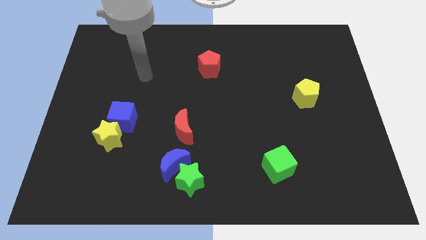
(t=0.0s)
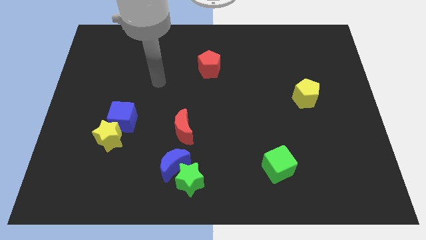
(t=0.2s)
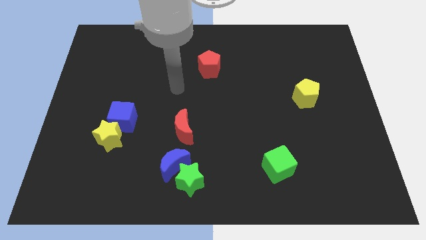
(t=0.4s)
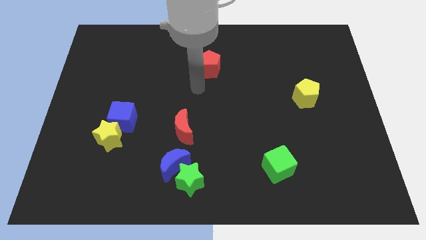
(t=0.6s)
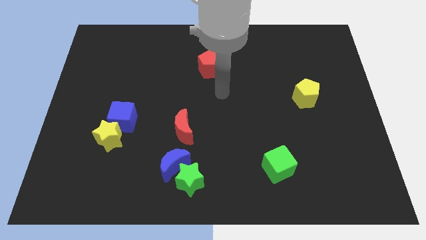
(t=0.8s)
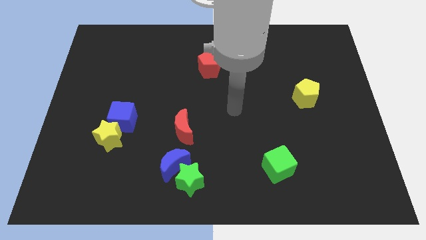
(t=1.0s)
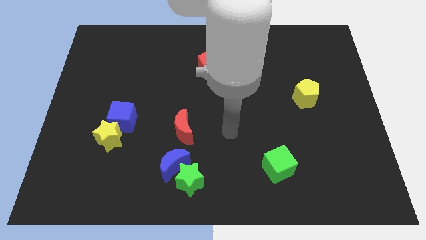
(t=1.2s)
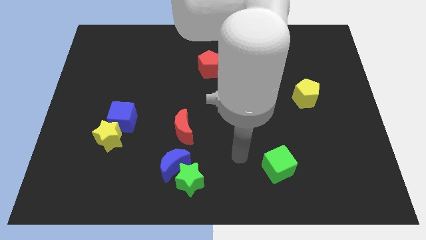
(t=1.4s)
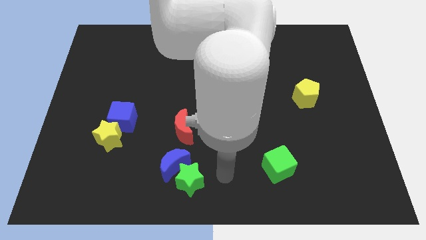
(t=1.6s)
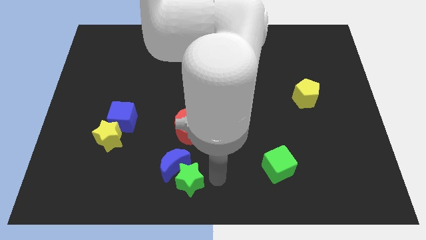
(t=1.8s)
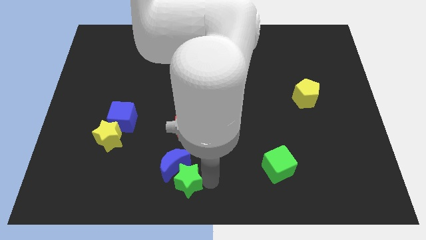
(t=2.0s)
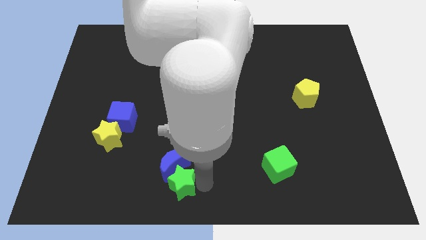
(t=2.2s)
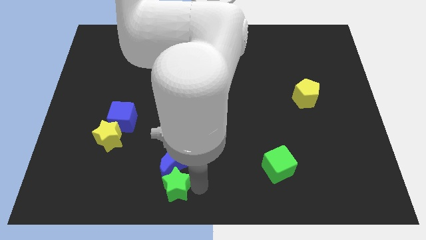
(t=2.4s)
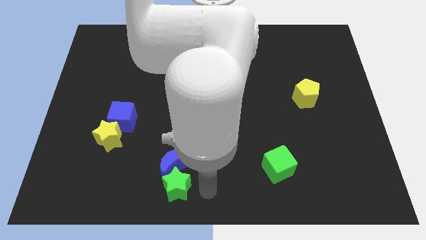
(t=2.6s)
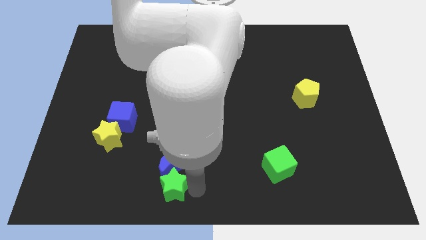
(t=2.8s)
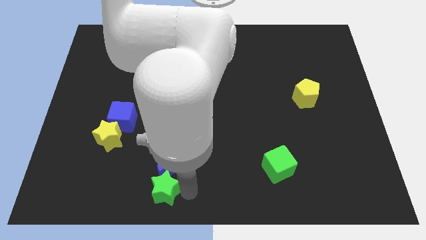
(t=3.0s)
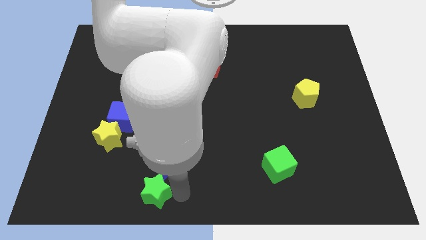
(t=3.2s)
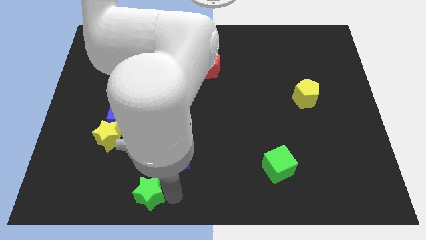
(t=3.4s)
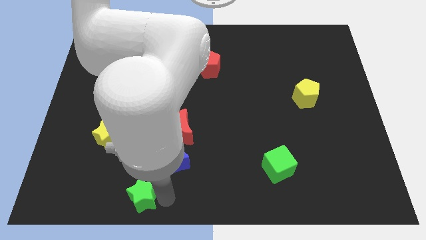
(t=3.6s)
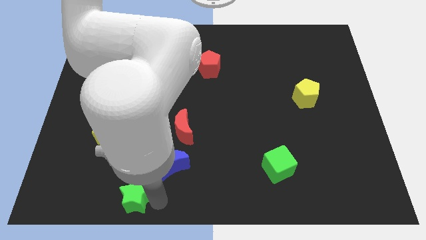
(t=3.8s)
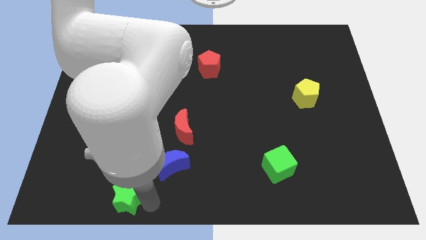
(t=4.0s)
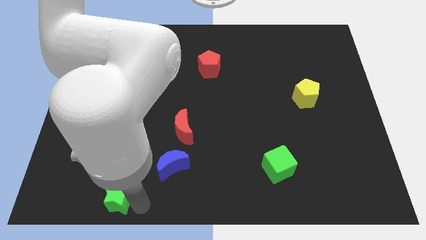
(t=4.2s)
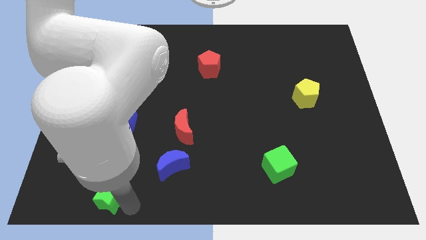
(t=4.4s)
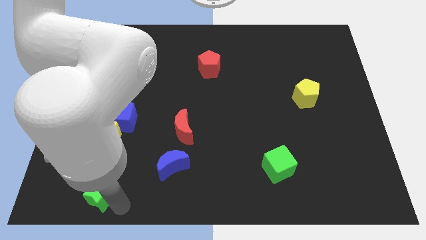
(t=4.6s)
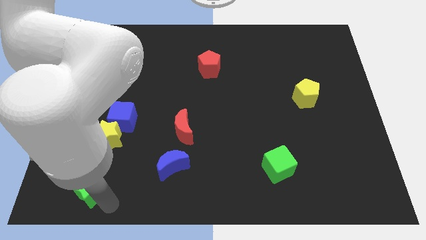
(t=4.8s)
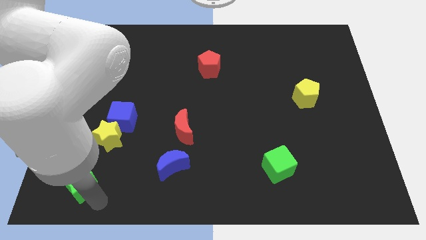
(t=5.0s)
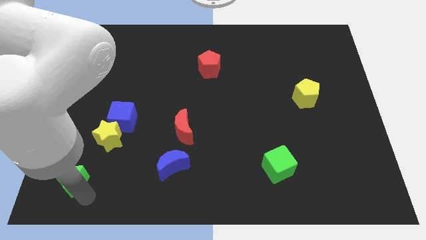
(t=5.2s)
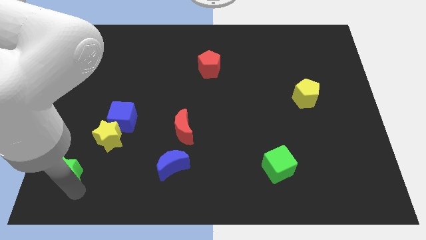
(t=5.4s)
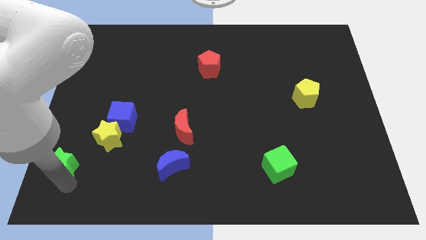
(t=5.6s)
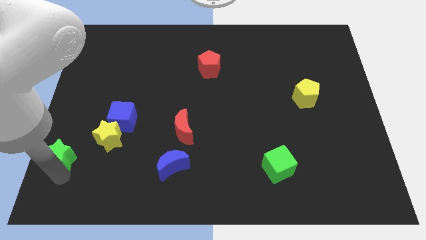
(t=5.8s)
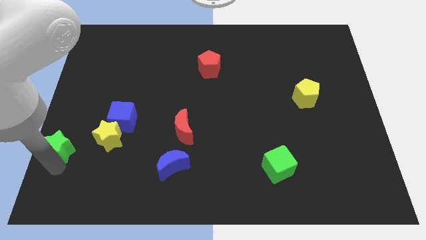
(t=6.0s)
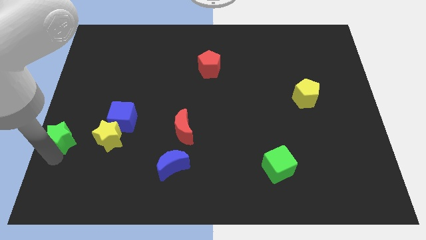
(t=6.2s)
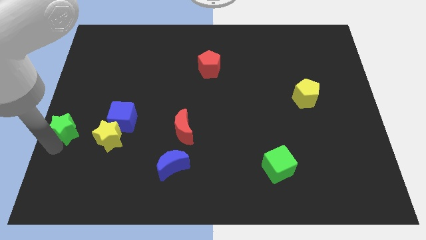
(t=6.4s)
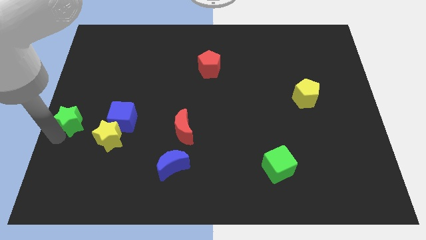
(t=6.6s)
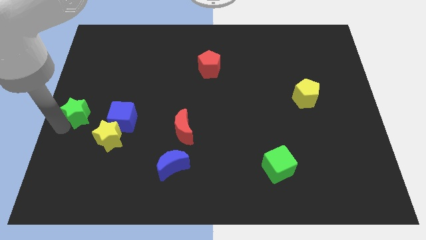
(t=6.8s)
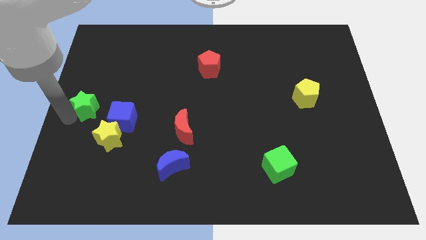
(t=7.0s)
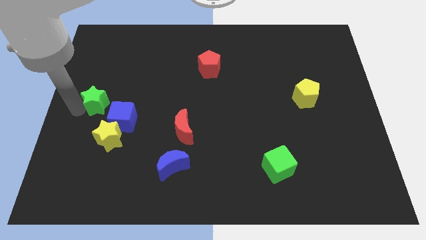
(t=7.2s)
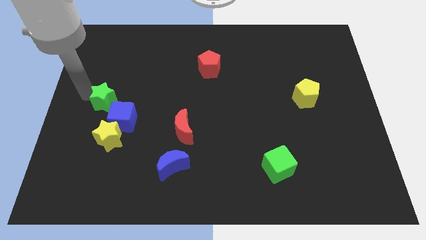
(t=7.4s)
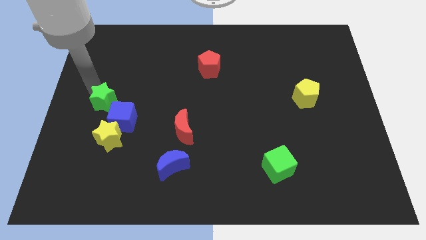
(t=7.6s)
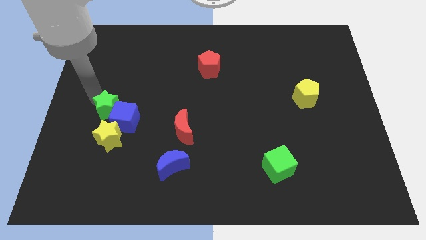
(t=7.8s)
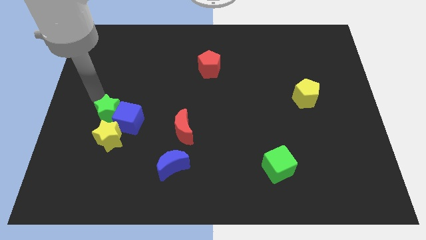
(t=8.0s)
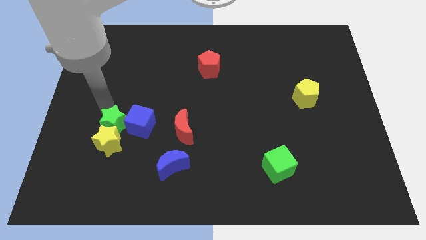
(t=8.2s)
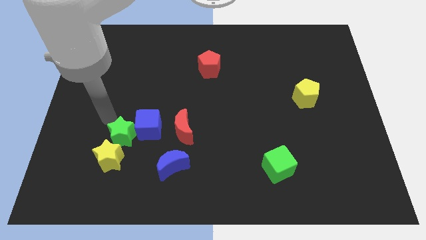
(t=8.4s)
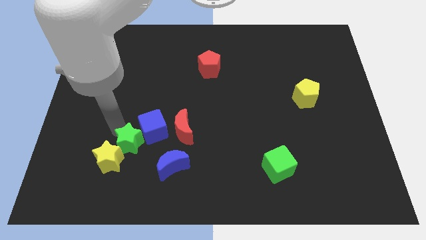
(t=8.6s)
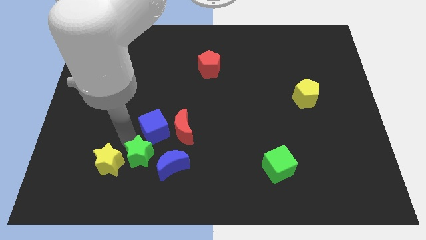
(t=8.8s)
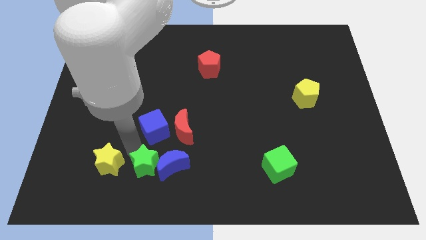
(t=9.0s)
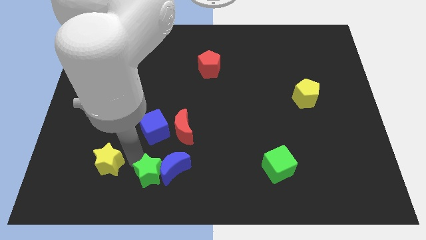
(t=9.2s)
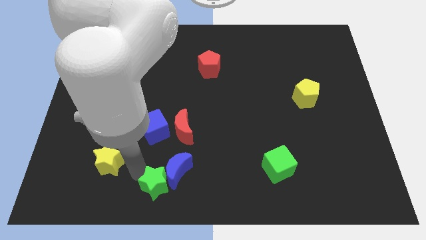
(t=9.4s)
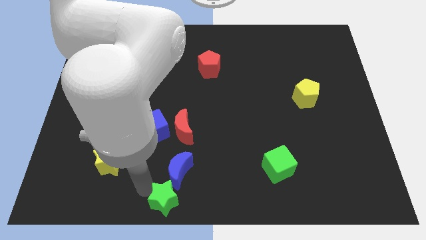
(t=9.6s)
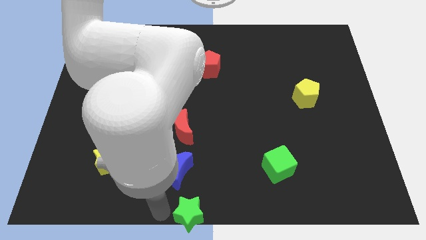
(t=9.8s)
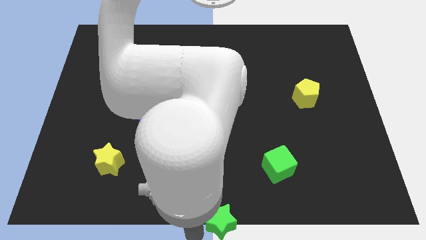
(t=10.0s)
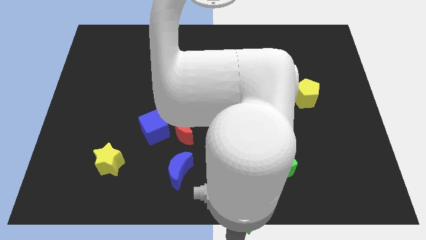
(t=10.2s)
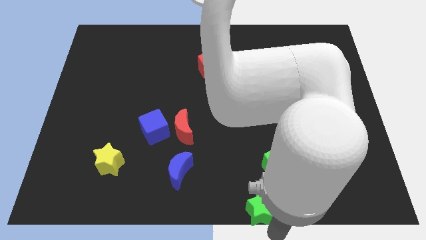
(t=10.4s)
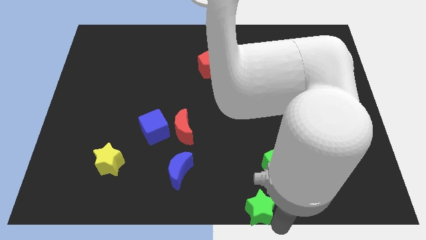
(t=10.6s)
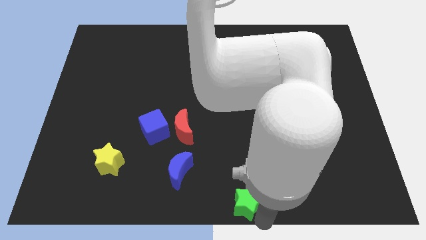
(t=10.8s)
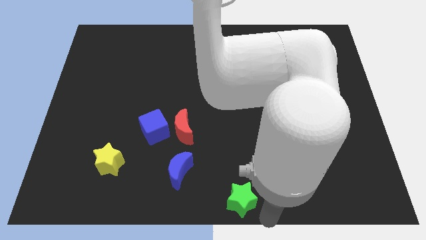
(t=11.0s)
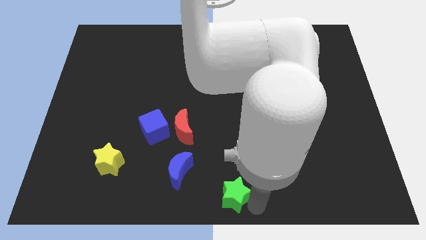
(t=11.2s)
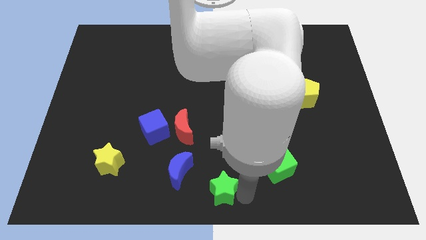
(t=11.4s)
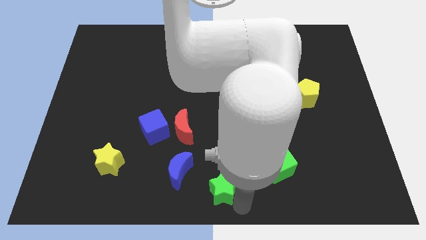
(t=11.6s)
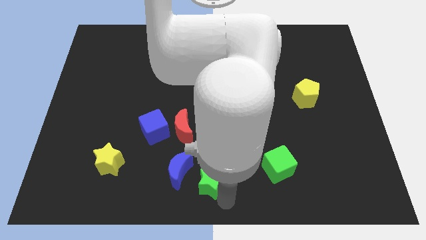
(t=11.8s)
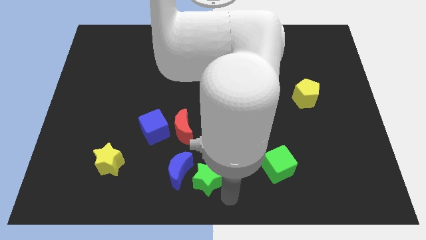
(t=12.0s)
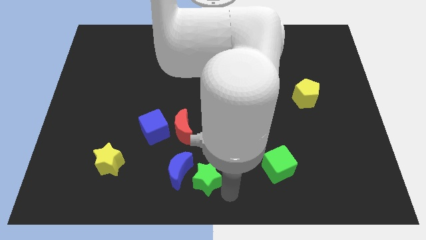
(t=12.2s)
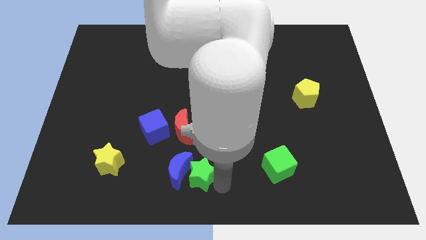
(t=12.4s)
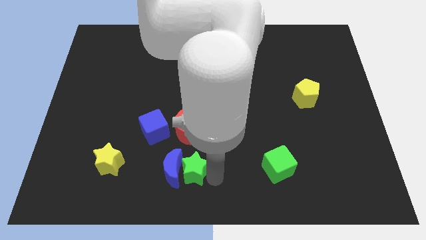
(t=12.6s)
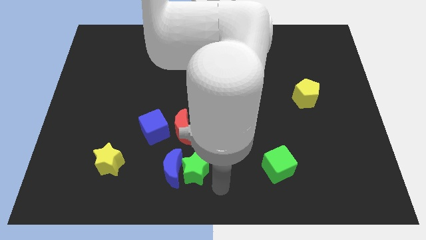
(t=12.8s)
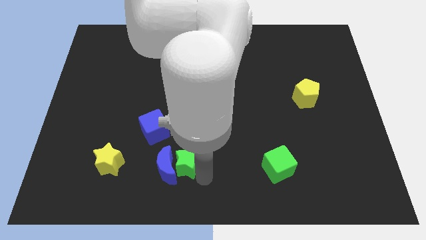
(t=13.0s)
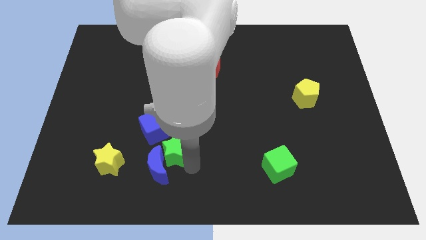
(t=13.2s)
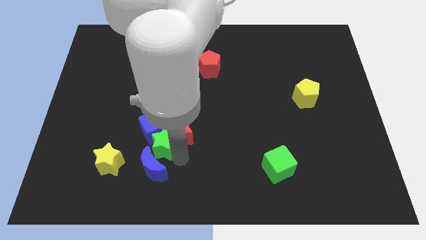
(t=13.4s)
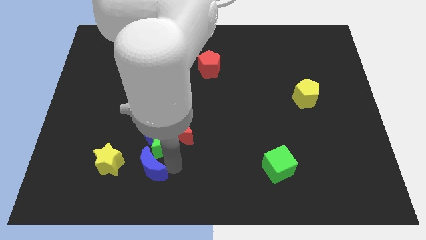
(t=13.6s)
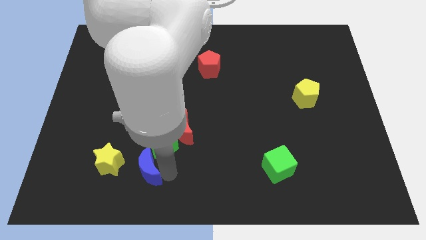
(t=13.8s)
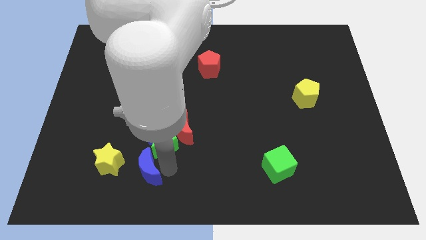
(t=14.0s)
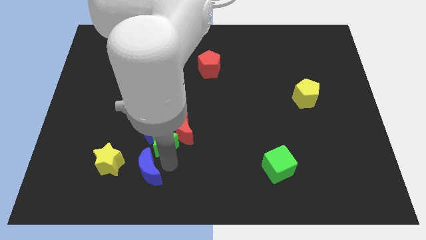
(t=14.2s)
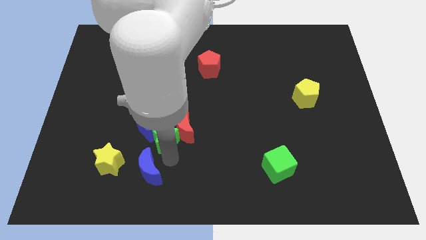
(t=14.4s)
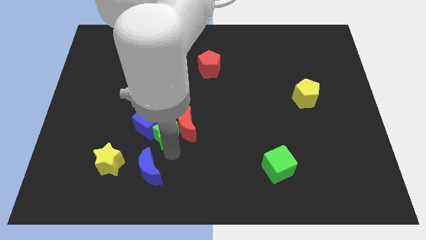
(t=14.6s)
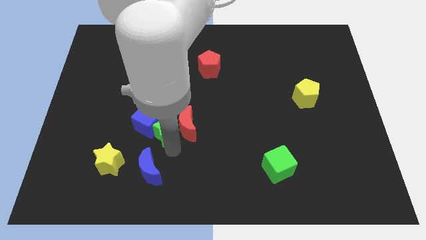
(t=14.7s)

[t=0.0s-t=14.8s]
put the green star to the top left side of the red moon
